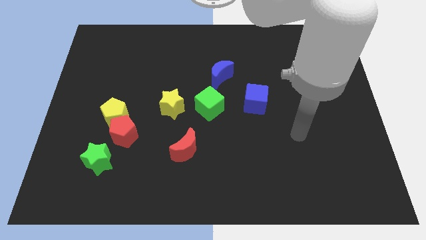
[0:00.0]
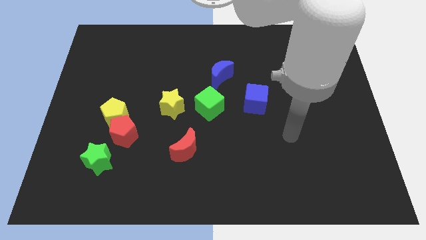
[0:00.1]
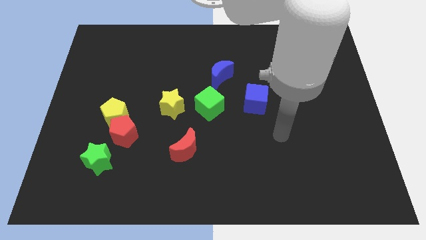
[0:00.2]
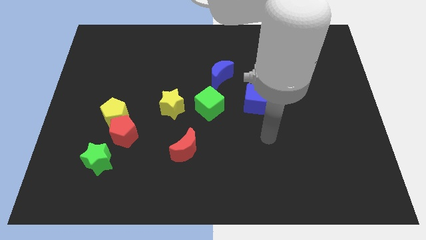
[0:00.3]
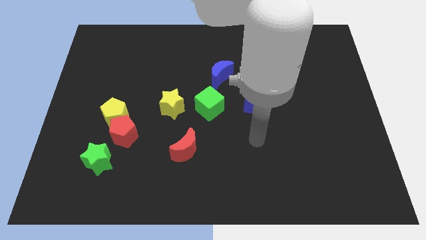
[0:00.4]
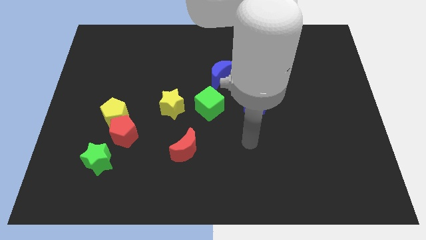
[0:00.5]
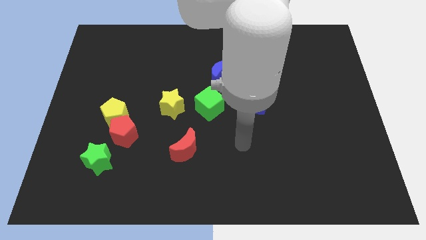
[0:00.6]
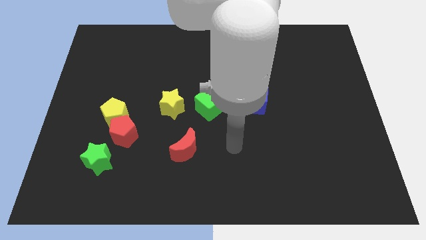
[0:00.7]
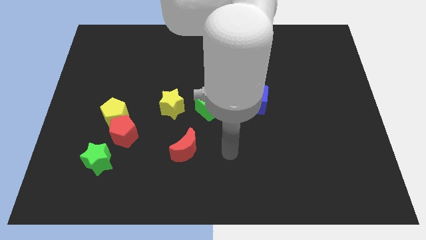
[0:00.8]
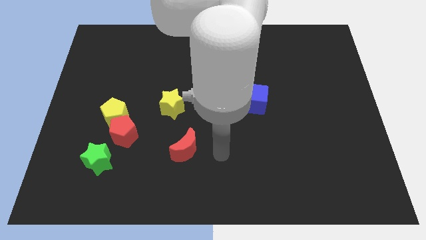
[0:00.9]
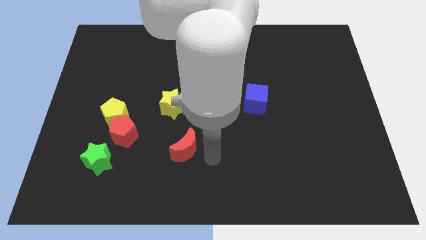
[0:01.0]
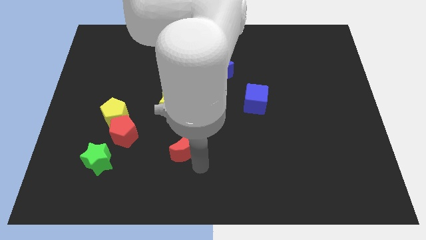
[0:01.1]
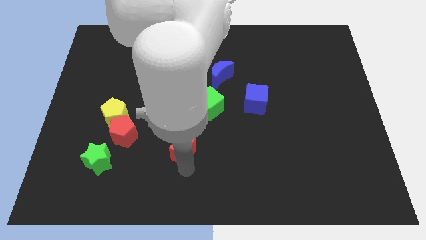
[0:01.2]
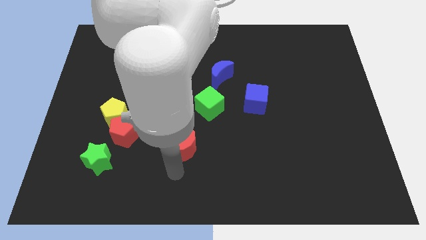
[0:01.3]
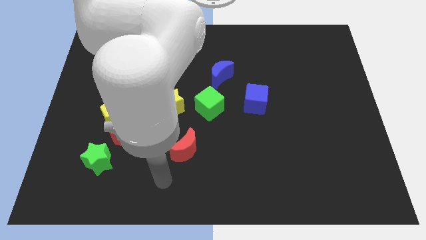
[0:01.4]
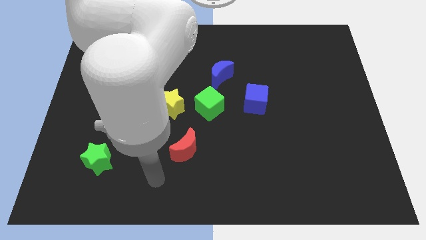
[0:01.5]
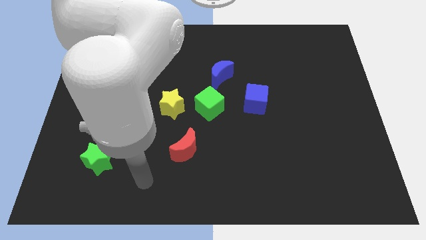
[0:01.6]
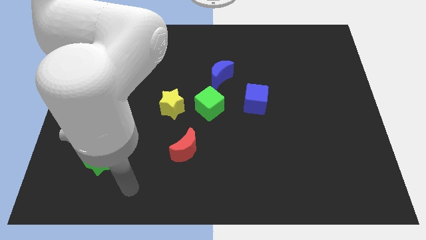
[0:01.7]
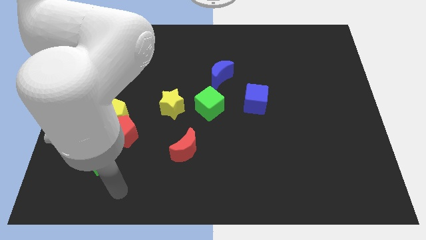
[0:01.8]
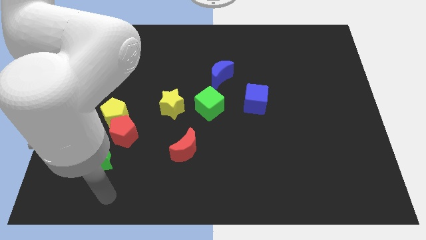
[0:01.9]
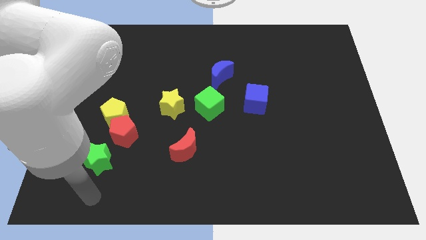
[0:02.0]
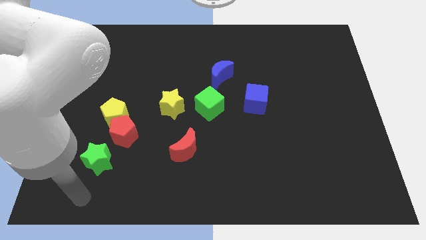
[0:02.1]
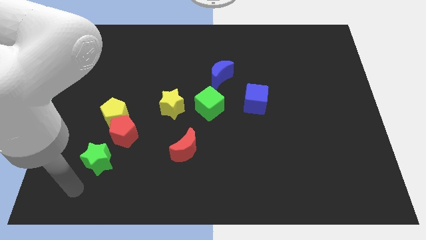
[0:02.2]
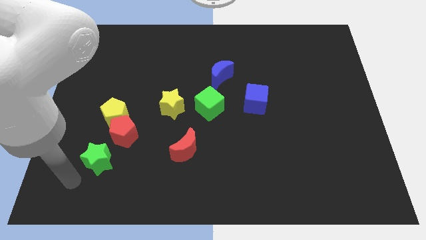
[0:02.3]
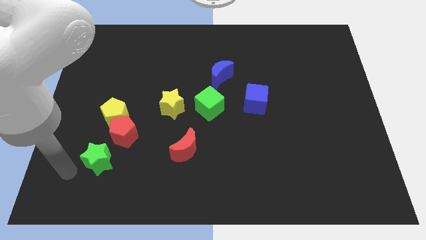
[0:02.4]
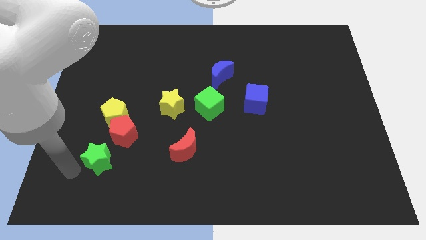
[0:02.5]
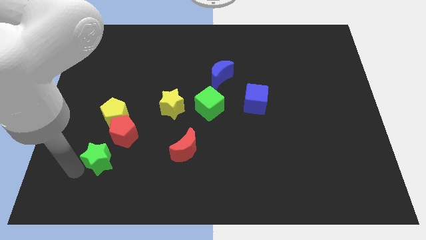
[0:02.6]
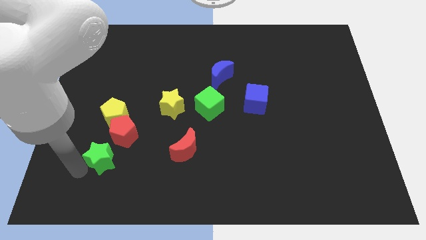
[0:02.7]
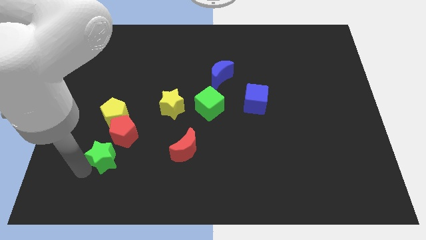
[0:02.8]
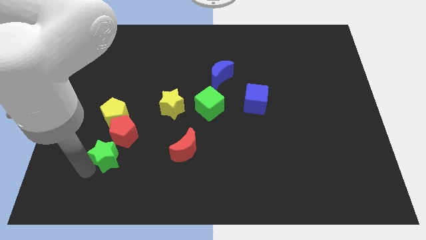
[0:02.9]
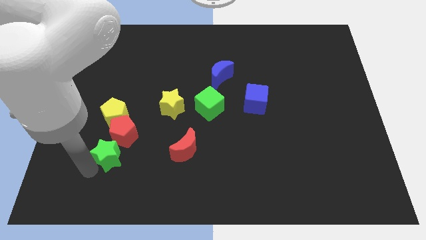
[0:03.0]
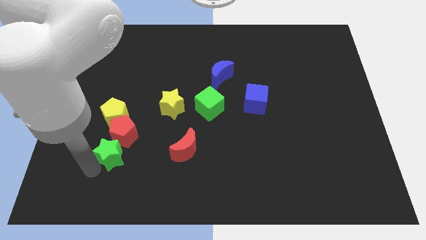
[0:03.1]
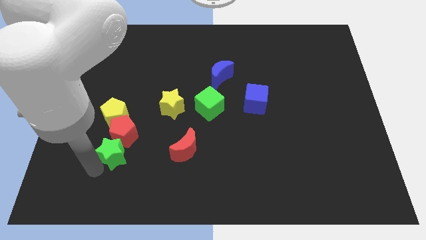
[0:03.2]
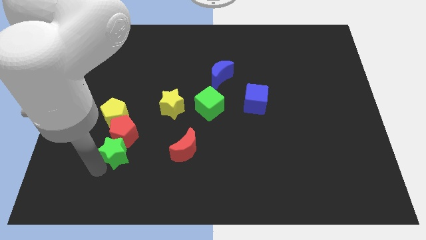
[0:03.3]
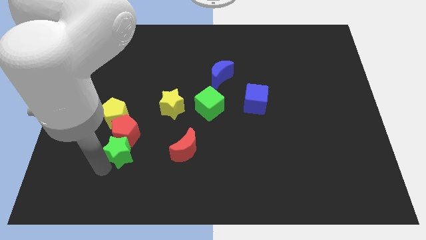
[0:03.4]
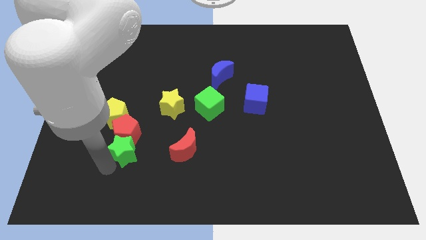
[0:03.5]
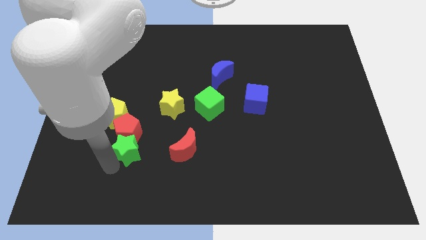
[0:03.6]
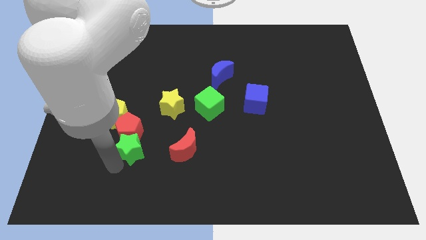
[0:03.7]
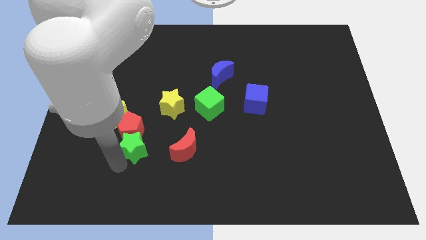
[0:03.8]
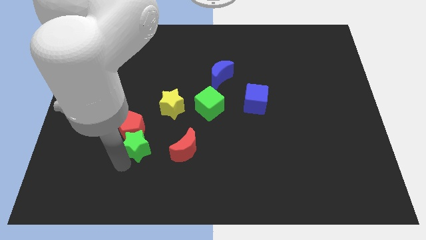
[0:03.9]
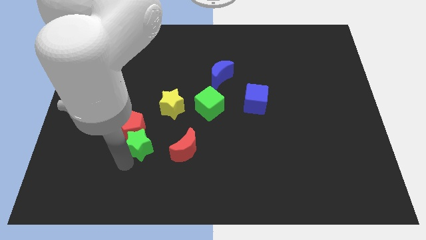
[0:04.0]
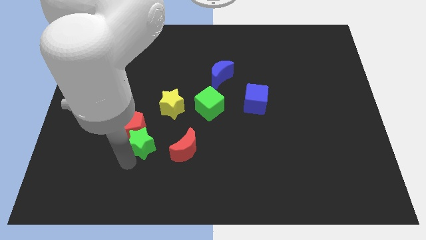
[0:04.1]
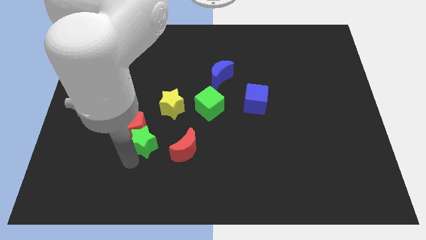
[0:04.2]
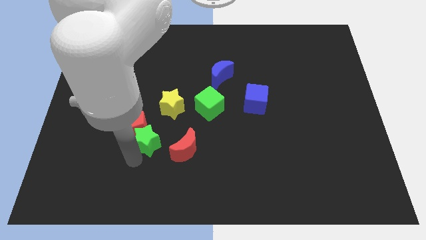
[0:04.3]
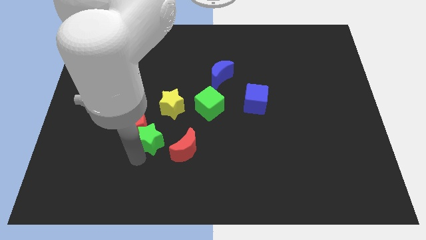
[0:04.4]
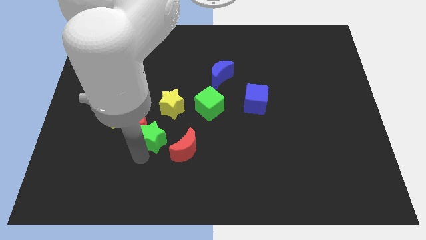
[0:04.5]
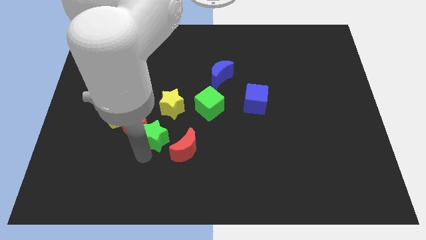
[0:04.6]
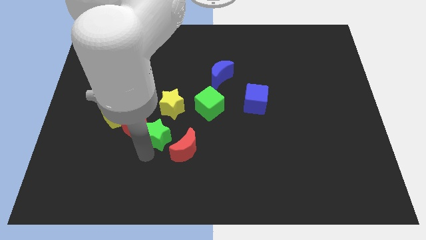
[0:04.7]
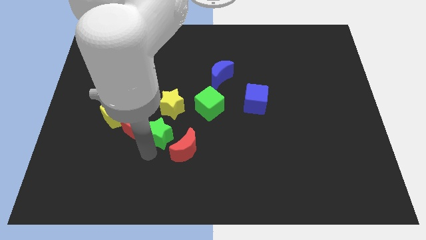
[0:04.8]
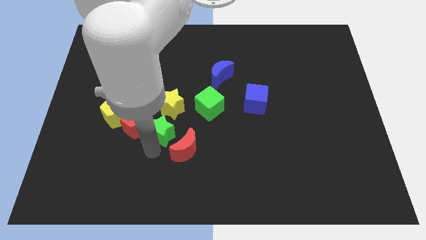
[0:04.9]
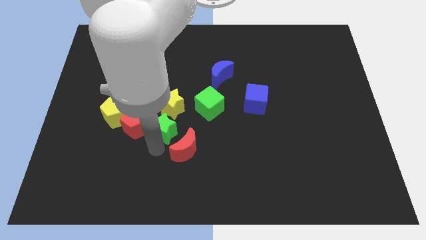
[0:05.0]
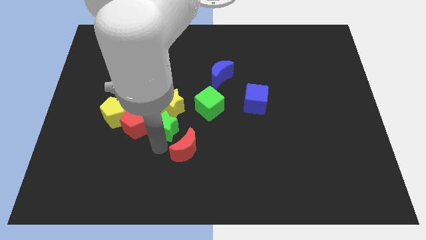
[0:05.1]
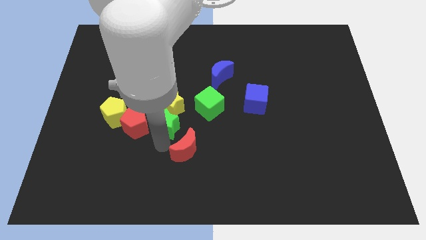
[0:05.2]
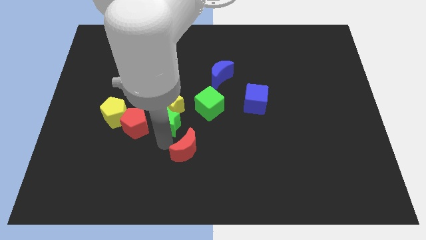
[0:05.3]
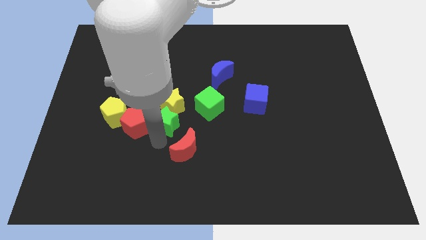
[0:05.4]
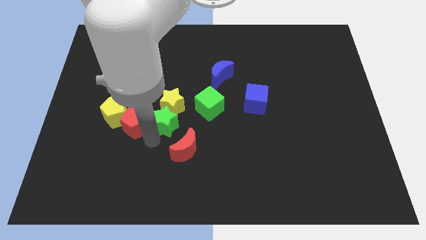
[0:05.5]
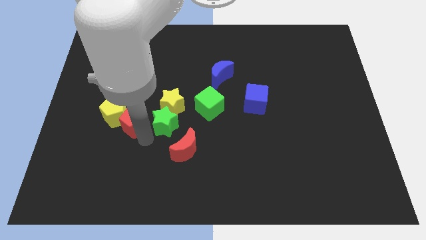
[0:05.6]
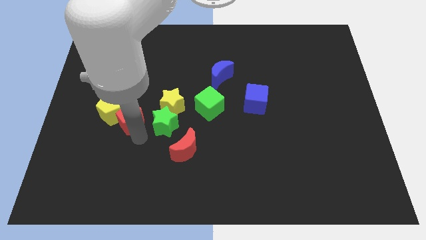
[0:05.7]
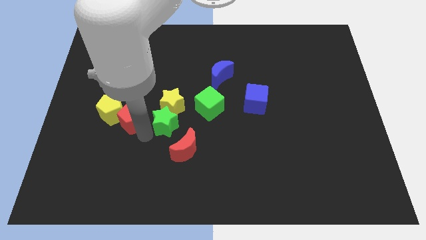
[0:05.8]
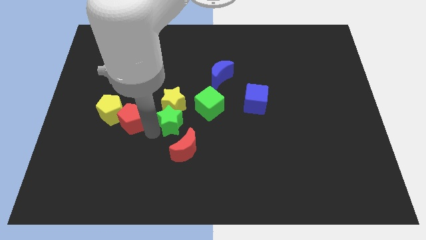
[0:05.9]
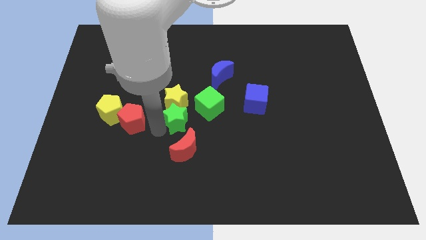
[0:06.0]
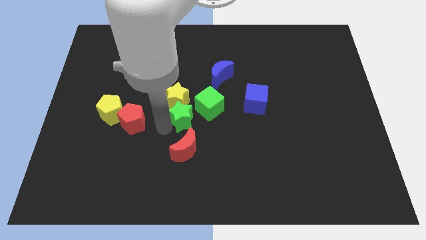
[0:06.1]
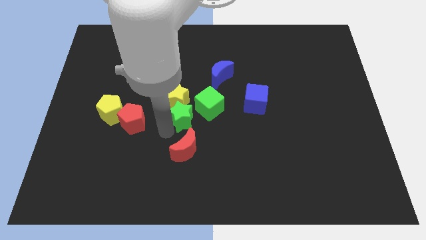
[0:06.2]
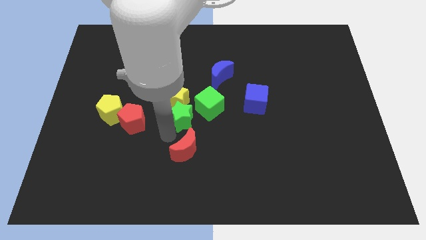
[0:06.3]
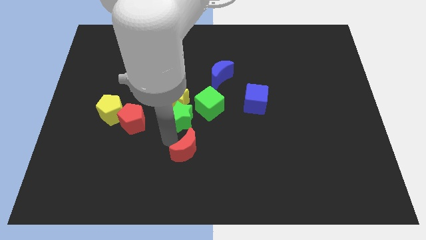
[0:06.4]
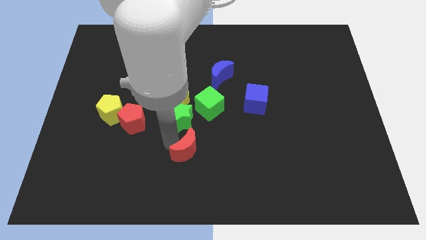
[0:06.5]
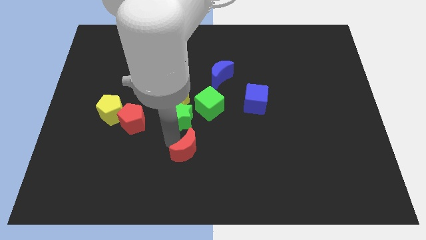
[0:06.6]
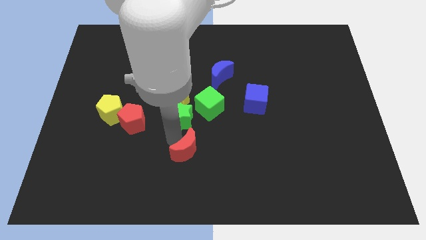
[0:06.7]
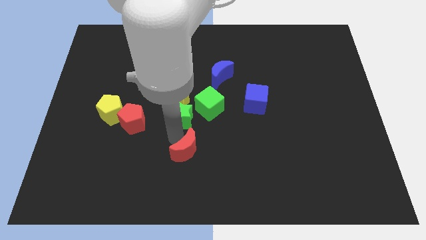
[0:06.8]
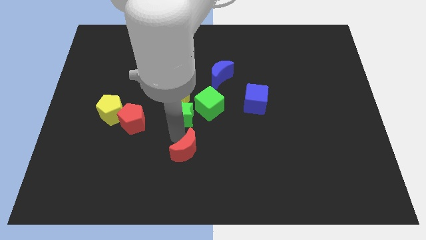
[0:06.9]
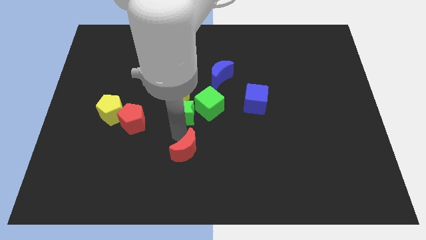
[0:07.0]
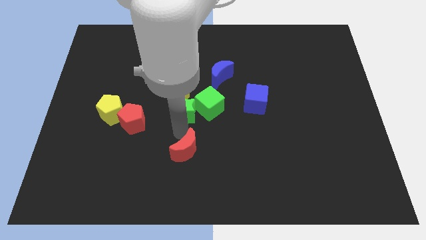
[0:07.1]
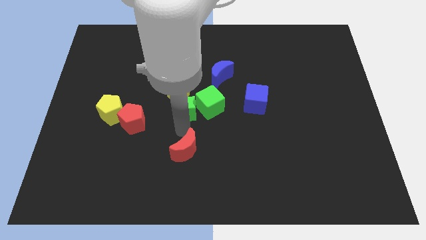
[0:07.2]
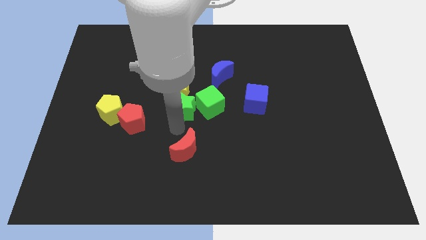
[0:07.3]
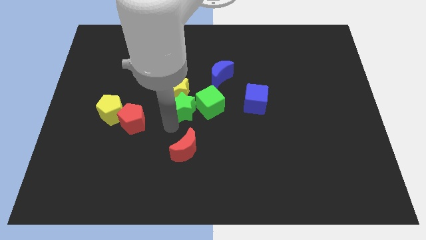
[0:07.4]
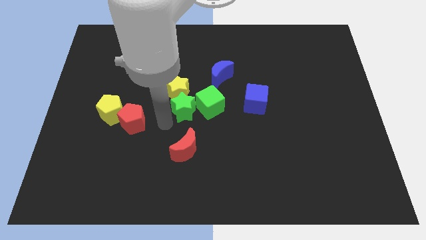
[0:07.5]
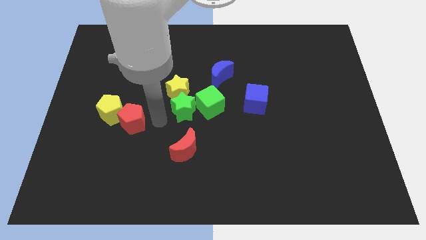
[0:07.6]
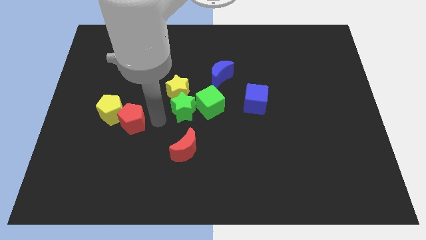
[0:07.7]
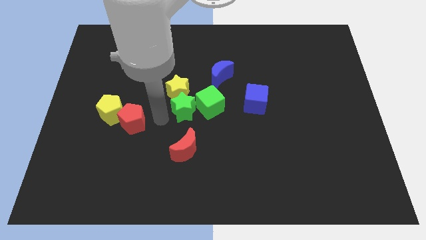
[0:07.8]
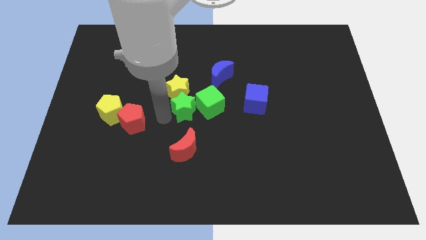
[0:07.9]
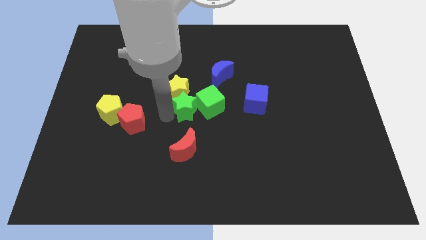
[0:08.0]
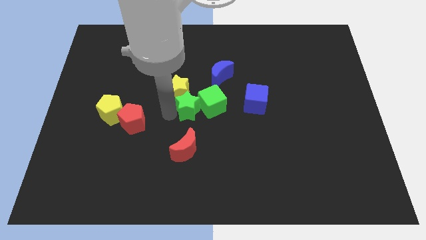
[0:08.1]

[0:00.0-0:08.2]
push the green star to the left of the blue cube
